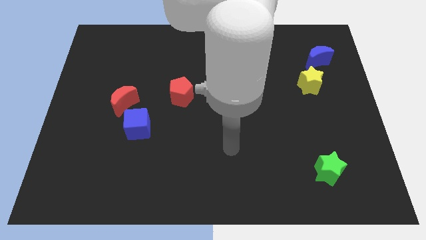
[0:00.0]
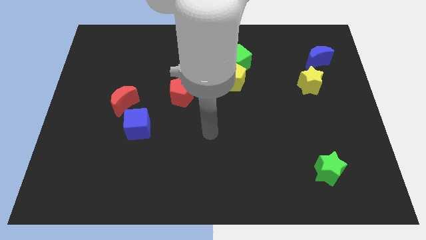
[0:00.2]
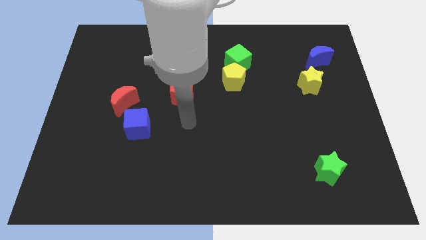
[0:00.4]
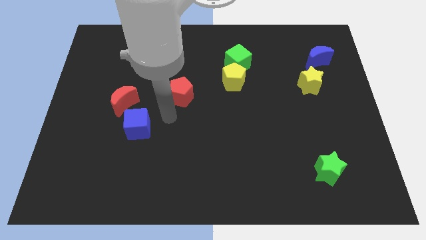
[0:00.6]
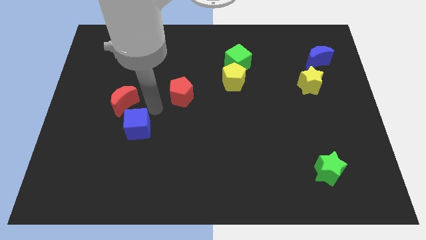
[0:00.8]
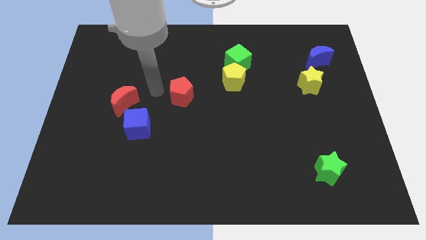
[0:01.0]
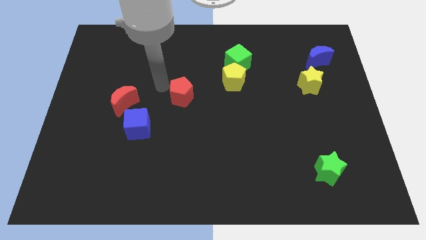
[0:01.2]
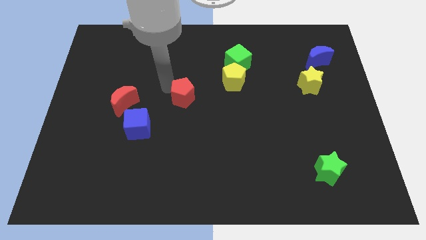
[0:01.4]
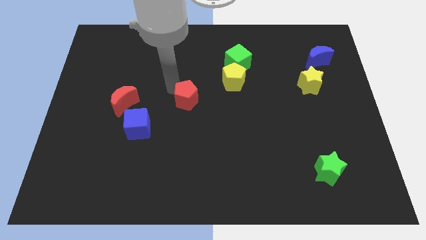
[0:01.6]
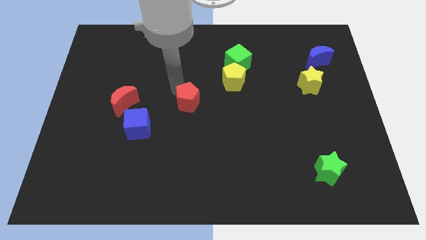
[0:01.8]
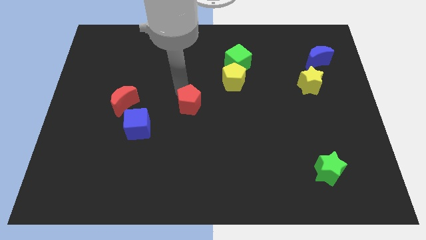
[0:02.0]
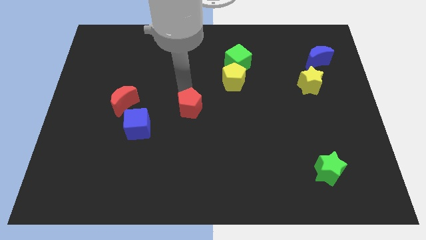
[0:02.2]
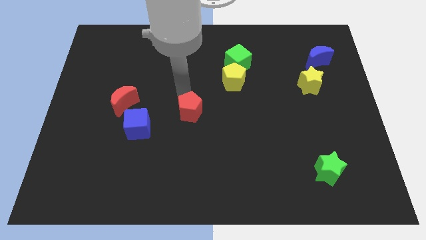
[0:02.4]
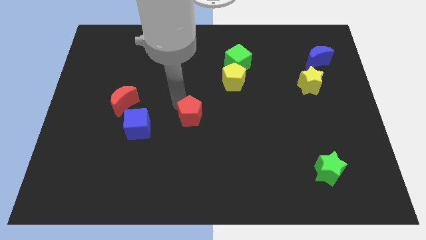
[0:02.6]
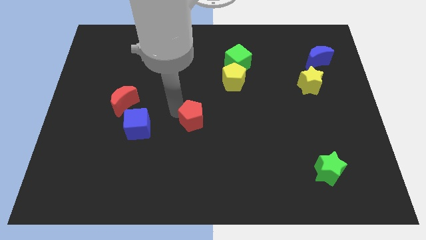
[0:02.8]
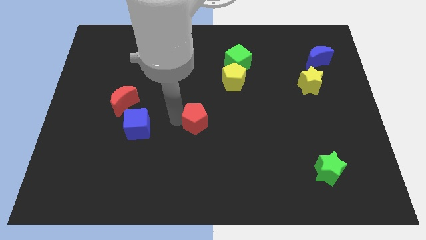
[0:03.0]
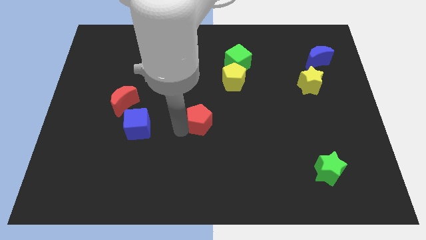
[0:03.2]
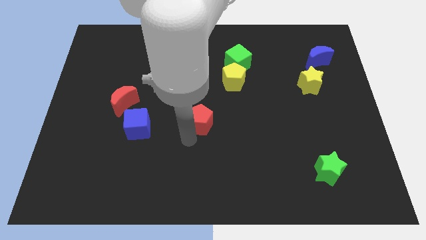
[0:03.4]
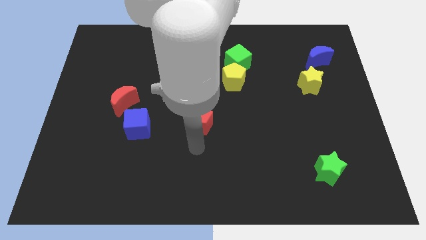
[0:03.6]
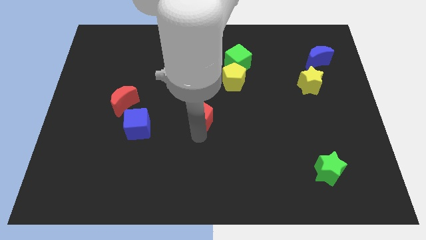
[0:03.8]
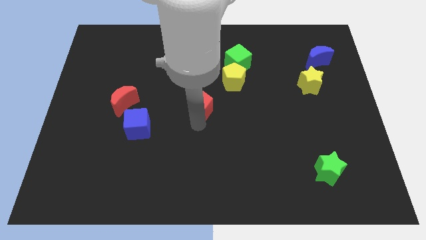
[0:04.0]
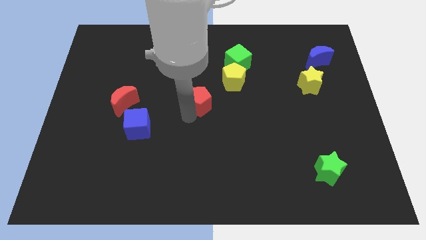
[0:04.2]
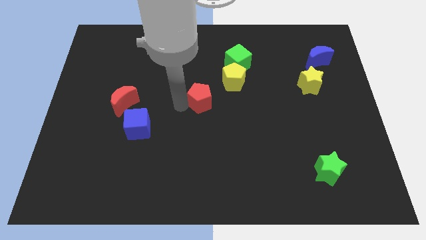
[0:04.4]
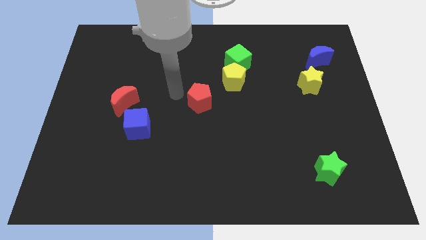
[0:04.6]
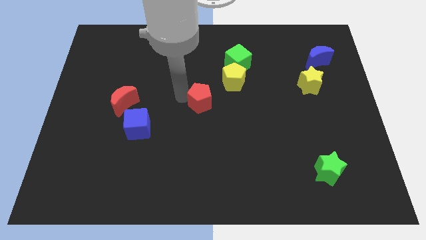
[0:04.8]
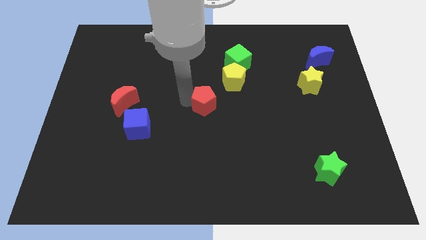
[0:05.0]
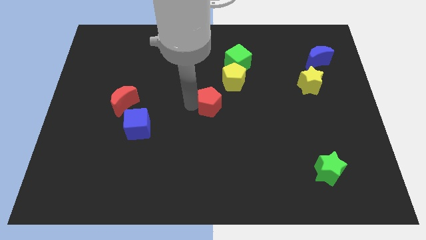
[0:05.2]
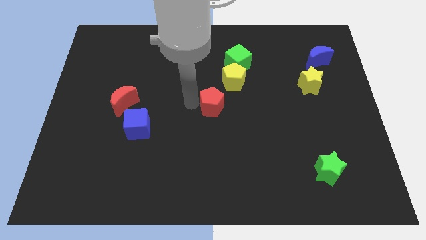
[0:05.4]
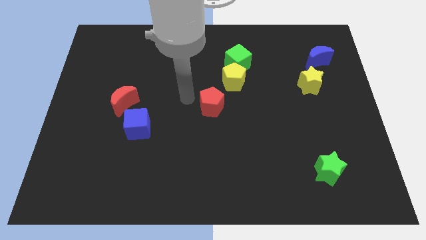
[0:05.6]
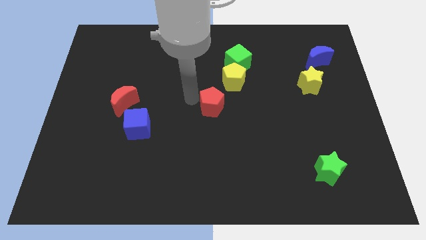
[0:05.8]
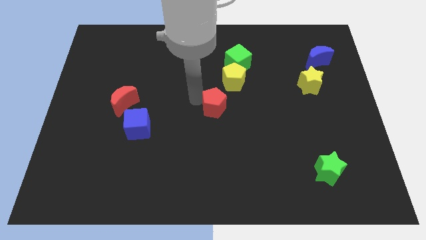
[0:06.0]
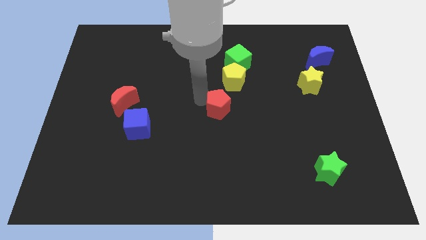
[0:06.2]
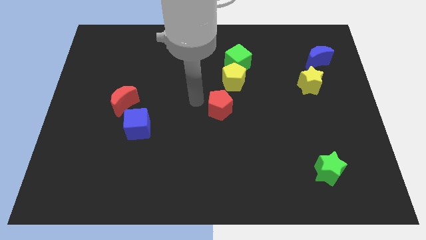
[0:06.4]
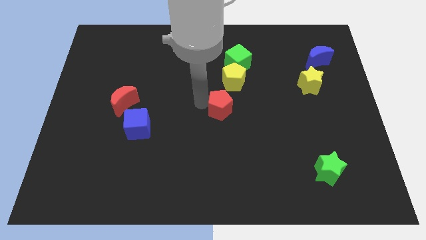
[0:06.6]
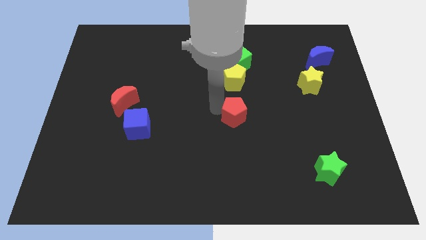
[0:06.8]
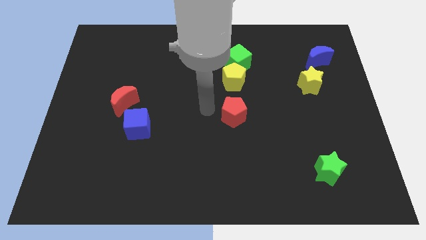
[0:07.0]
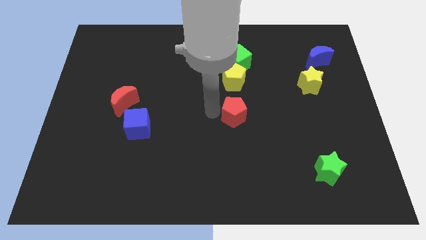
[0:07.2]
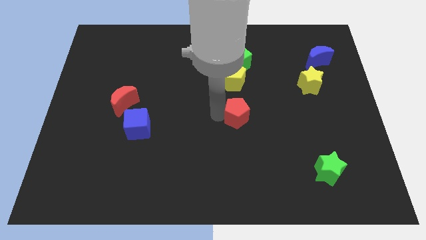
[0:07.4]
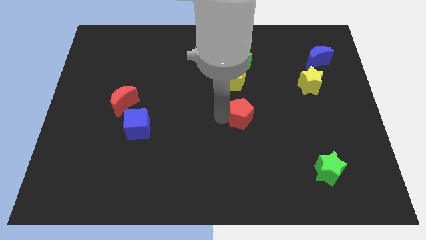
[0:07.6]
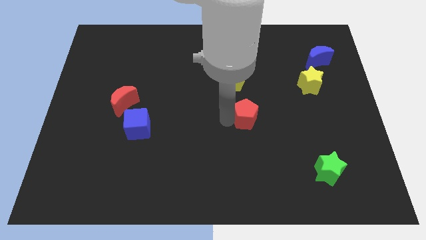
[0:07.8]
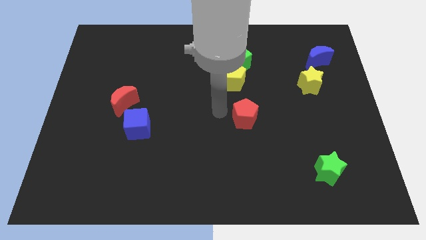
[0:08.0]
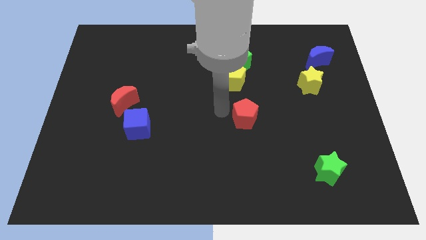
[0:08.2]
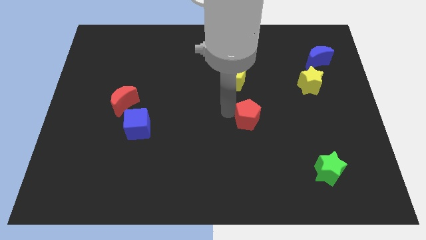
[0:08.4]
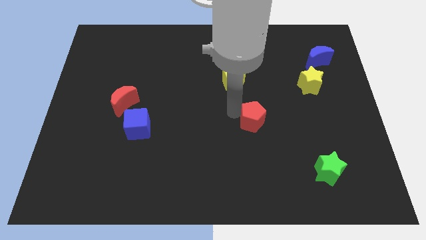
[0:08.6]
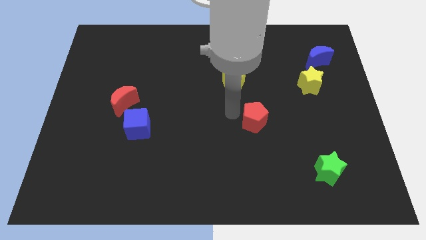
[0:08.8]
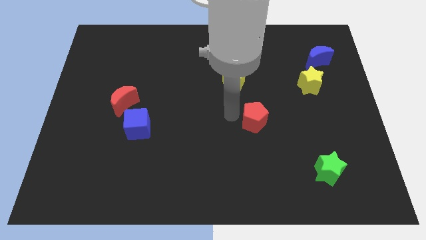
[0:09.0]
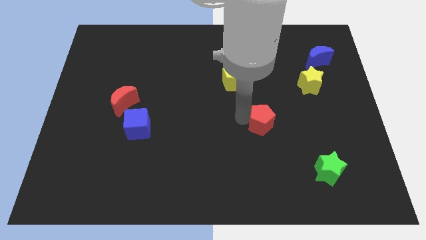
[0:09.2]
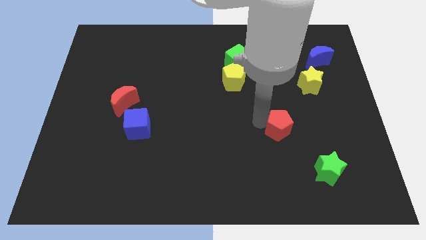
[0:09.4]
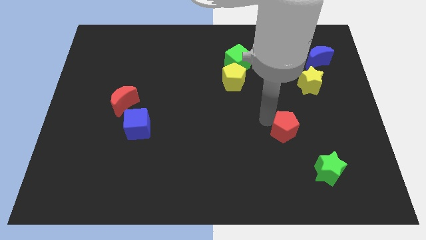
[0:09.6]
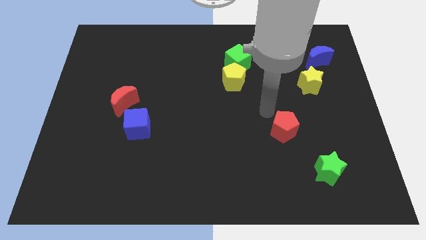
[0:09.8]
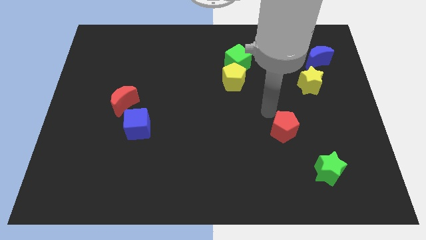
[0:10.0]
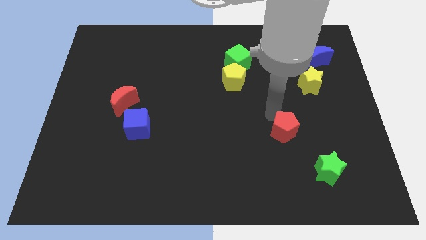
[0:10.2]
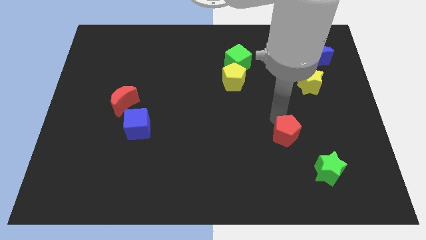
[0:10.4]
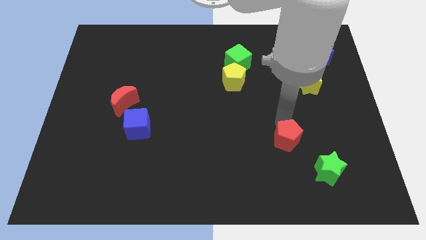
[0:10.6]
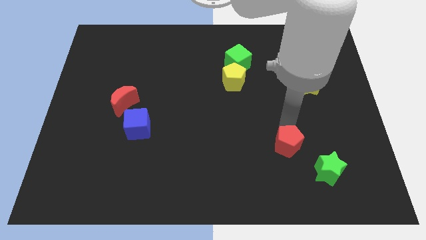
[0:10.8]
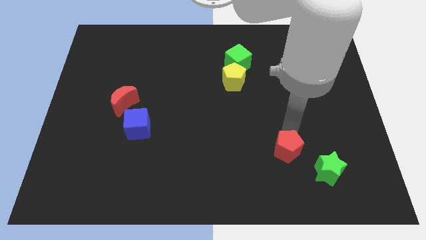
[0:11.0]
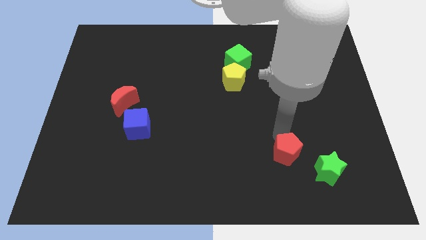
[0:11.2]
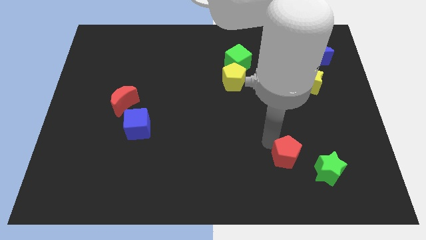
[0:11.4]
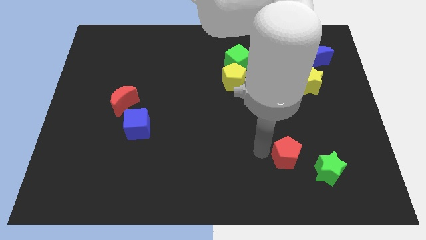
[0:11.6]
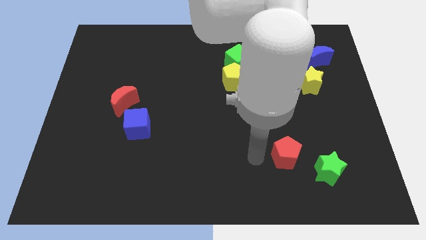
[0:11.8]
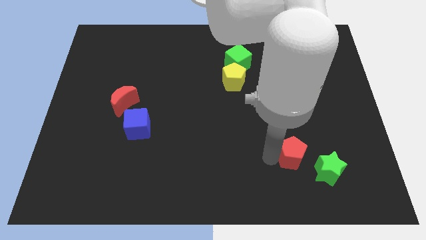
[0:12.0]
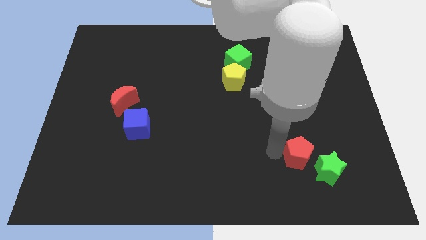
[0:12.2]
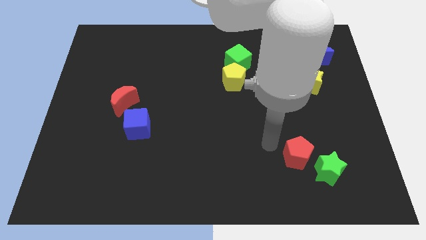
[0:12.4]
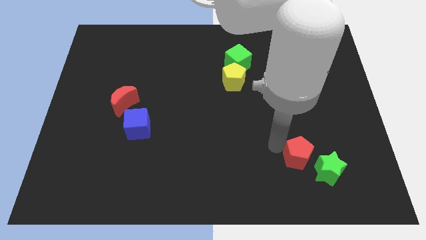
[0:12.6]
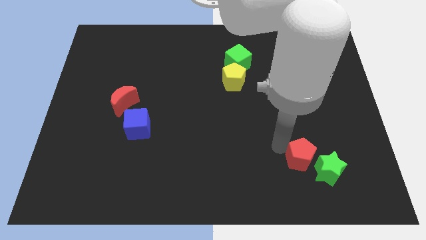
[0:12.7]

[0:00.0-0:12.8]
slide the red pentagon towards the green star
